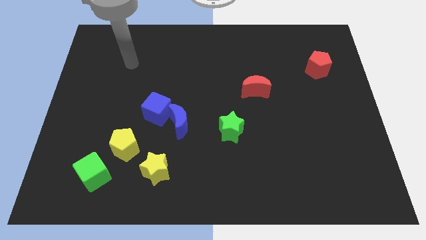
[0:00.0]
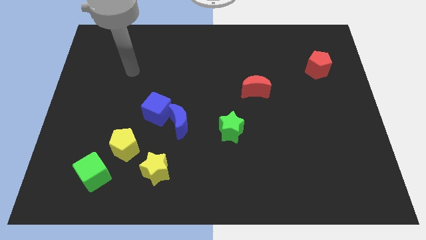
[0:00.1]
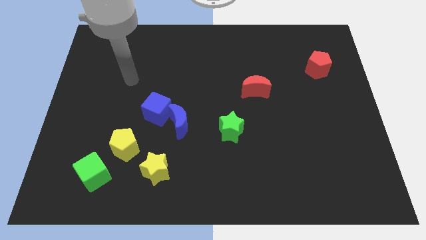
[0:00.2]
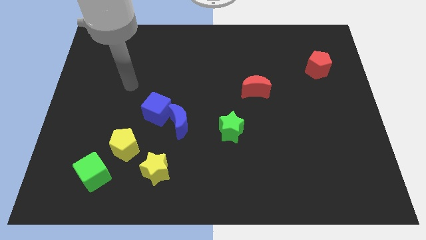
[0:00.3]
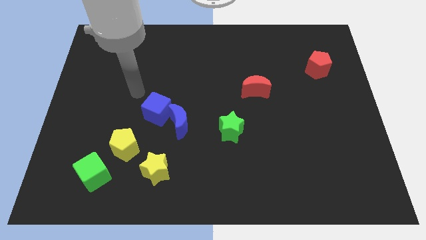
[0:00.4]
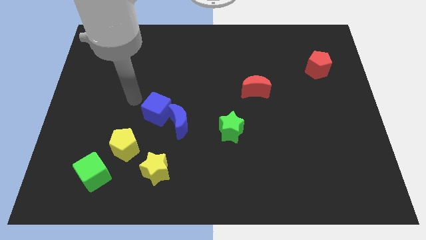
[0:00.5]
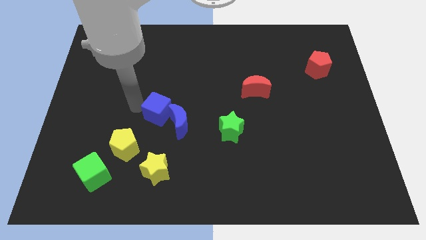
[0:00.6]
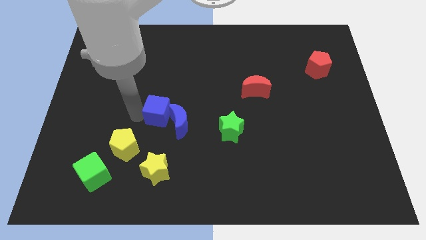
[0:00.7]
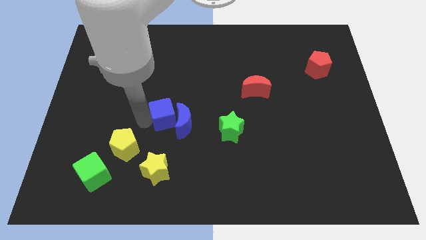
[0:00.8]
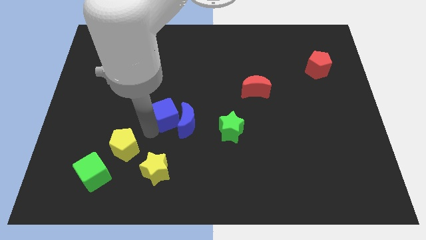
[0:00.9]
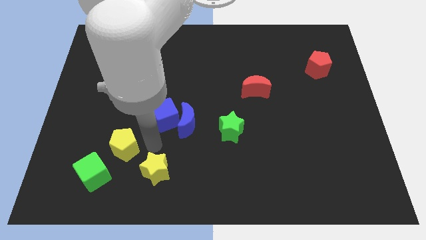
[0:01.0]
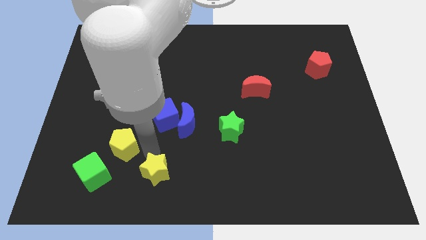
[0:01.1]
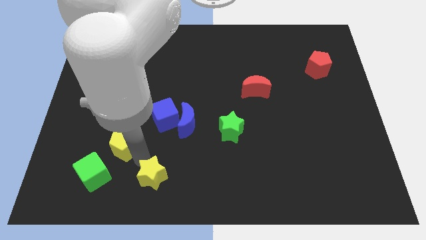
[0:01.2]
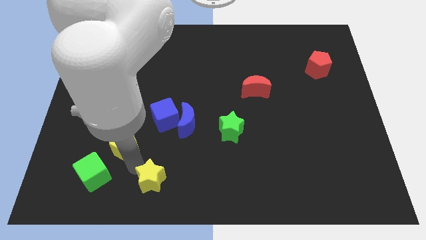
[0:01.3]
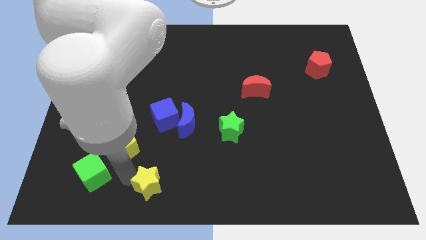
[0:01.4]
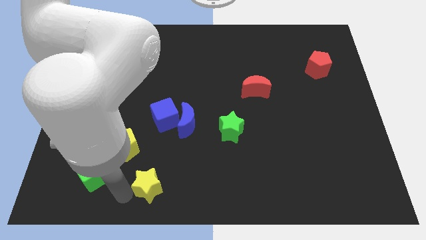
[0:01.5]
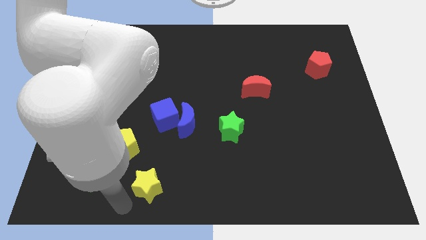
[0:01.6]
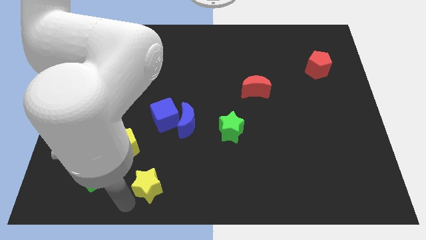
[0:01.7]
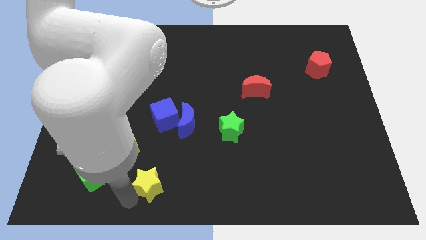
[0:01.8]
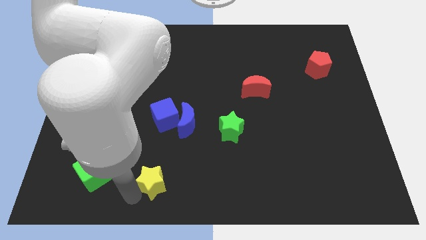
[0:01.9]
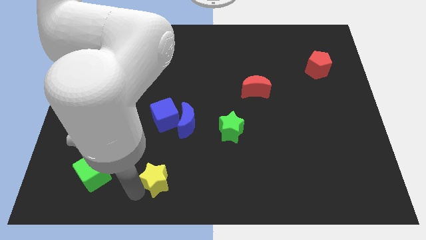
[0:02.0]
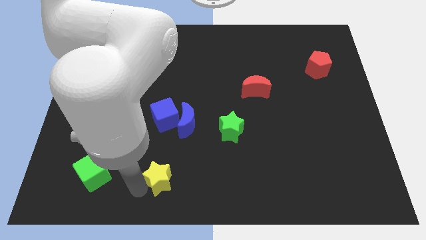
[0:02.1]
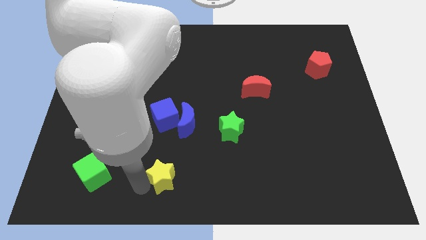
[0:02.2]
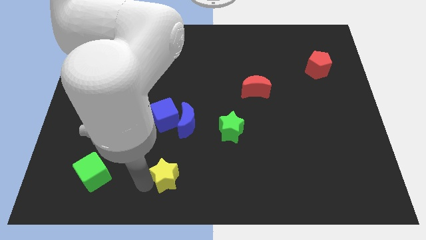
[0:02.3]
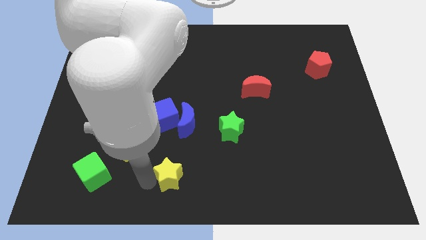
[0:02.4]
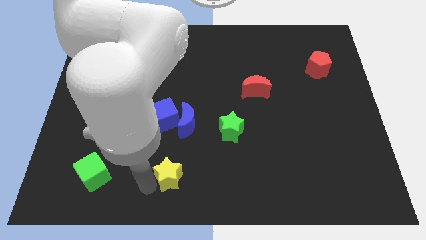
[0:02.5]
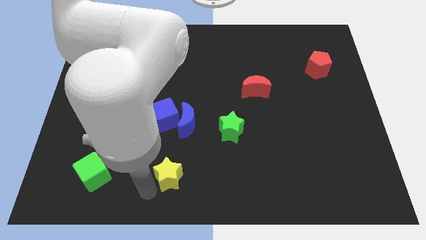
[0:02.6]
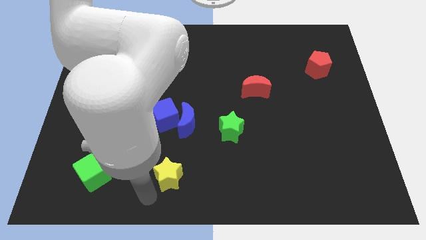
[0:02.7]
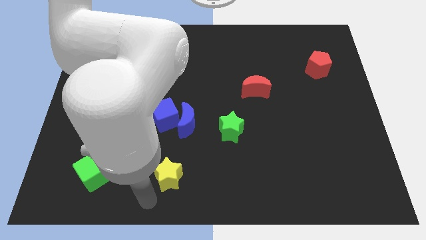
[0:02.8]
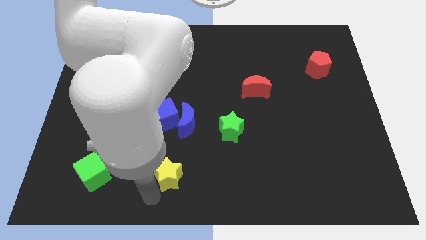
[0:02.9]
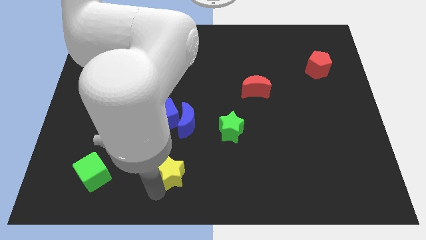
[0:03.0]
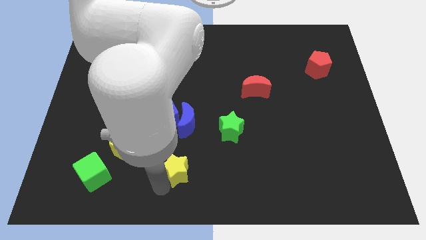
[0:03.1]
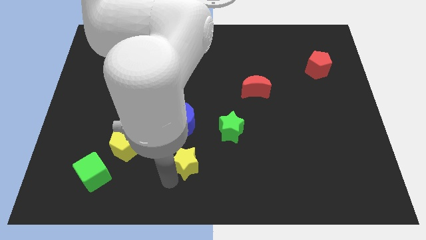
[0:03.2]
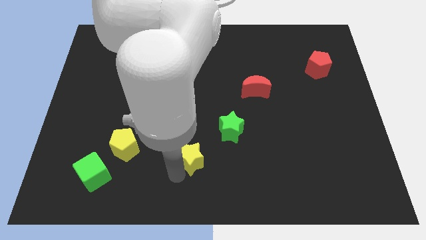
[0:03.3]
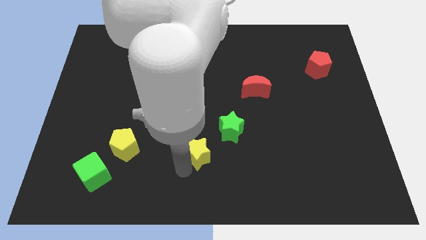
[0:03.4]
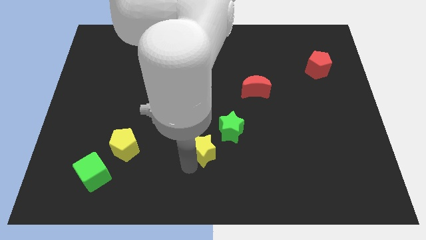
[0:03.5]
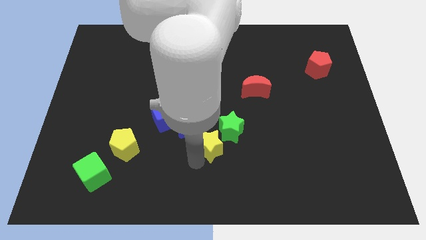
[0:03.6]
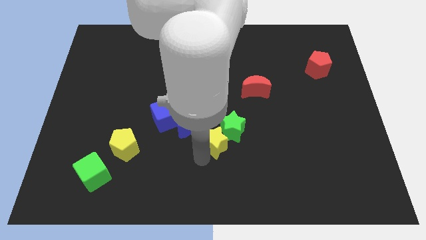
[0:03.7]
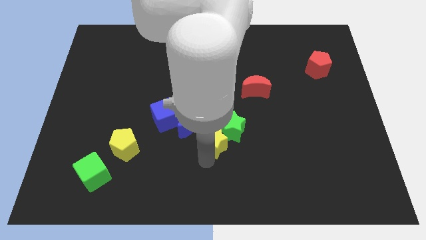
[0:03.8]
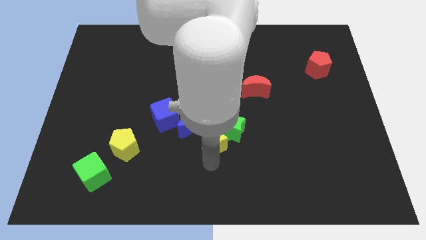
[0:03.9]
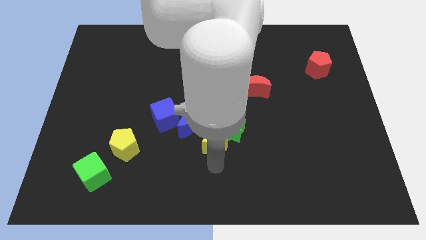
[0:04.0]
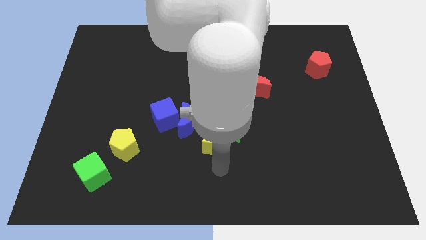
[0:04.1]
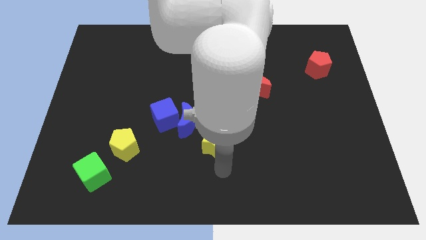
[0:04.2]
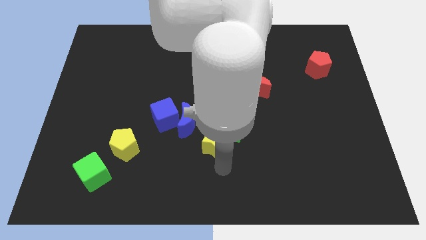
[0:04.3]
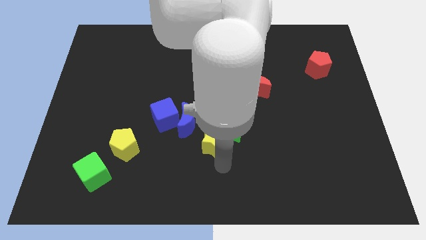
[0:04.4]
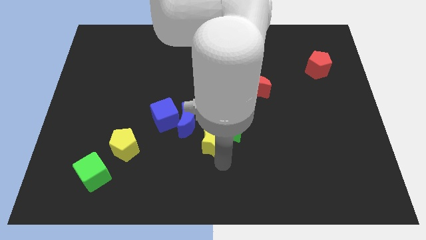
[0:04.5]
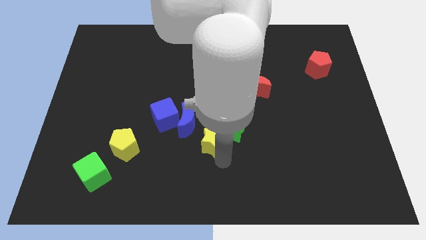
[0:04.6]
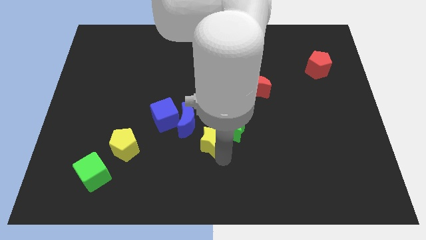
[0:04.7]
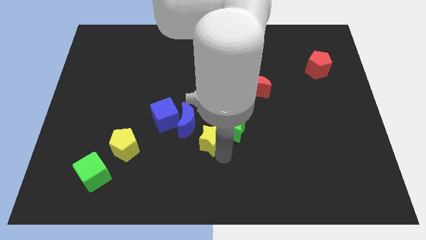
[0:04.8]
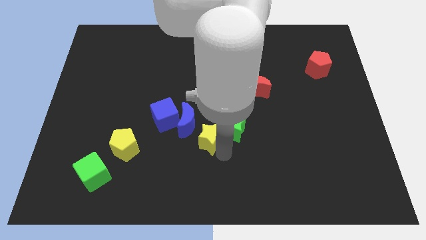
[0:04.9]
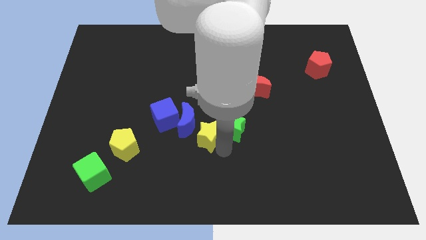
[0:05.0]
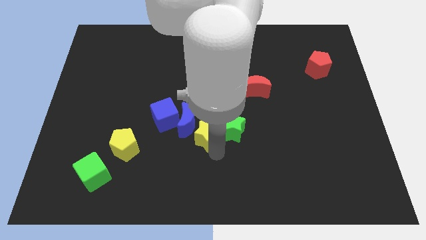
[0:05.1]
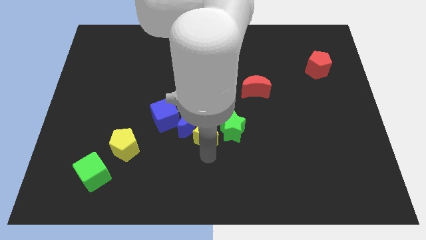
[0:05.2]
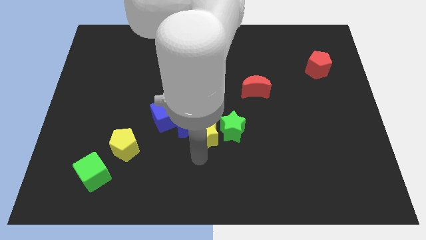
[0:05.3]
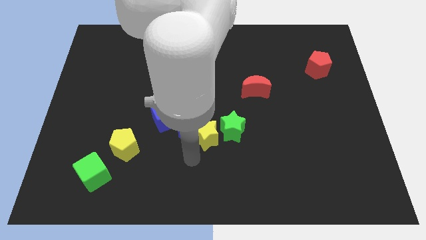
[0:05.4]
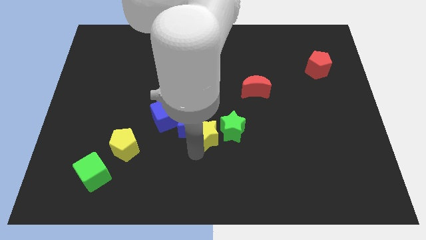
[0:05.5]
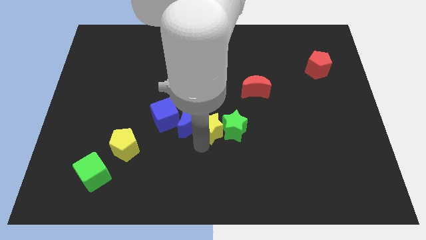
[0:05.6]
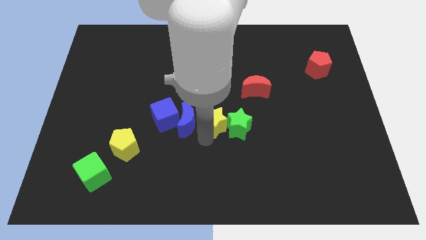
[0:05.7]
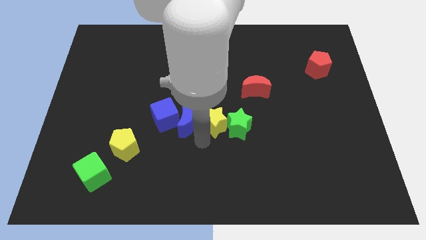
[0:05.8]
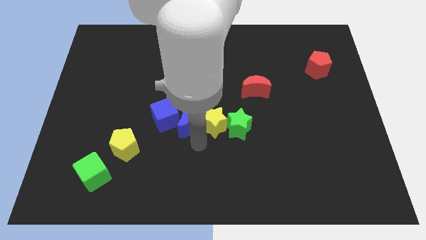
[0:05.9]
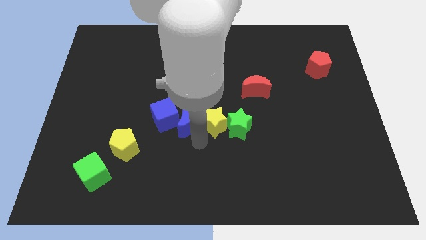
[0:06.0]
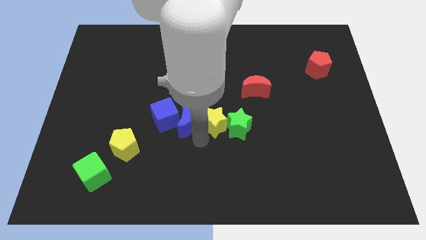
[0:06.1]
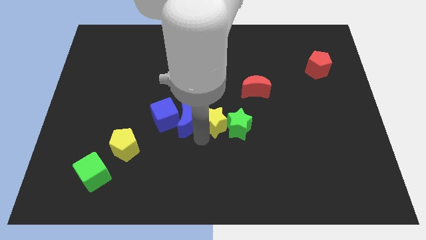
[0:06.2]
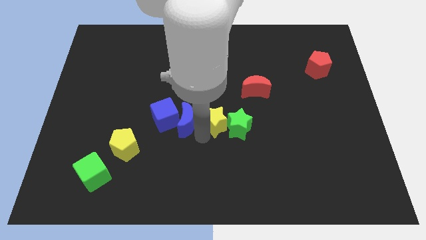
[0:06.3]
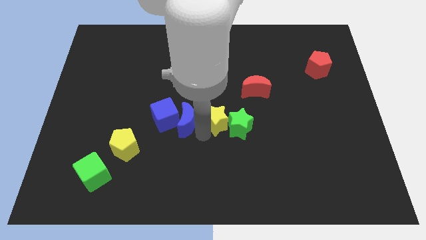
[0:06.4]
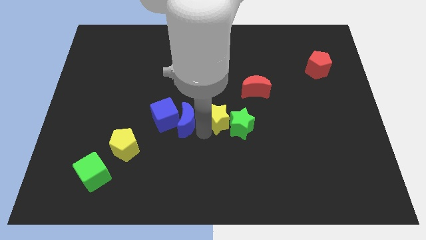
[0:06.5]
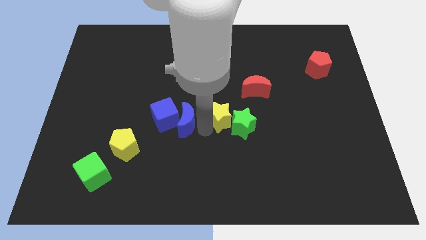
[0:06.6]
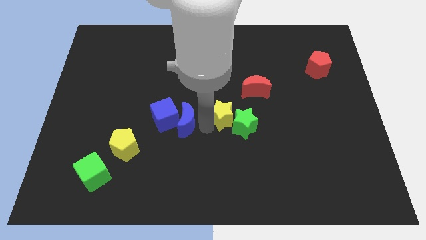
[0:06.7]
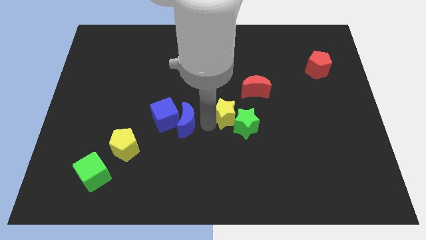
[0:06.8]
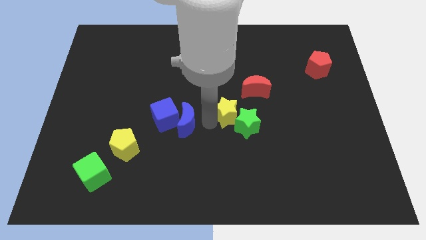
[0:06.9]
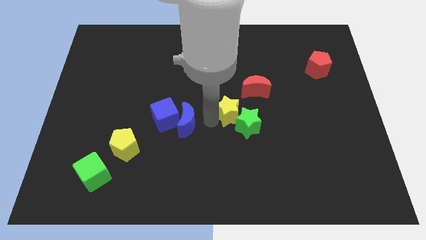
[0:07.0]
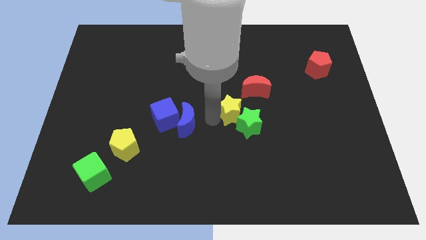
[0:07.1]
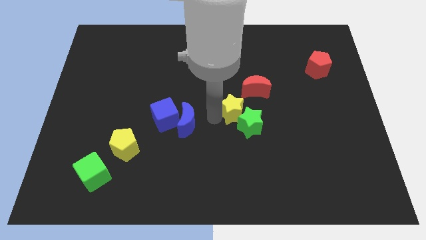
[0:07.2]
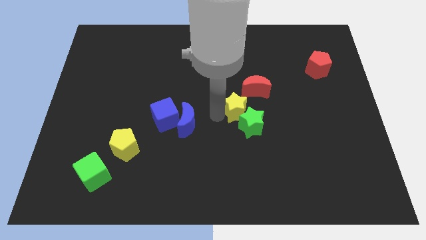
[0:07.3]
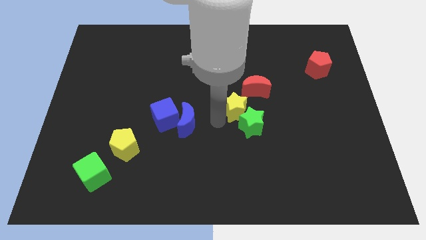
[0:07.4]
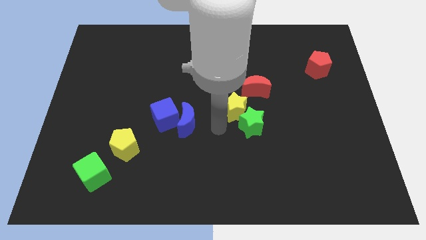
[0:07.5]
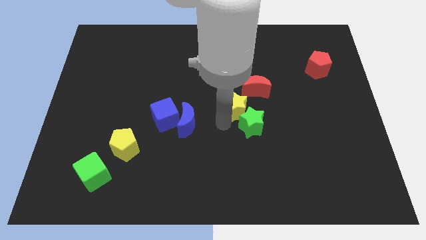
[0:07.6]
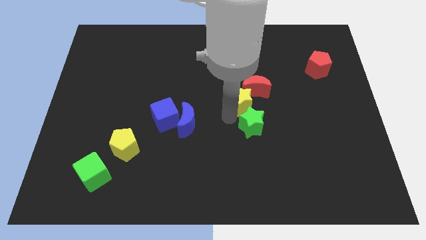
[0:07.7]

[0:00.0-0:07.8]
push the yellow star next to the red moon
